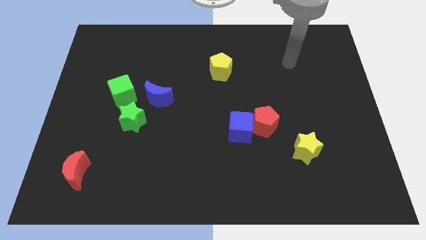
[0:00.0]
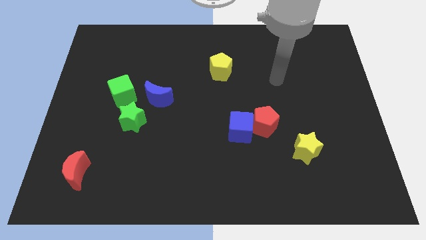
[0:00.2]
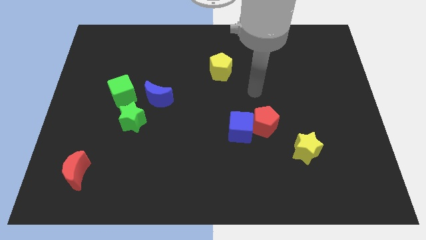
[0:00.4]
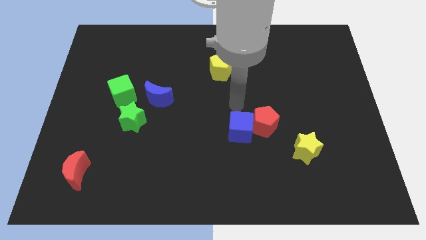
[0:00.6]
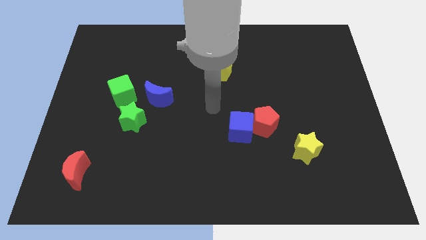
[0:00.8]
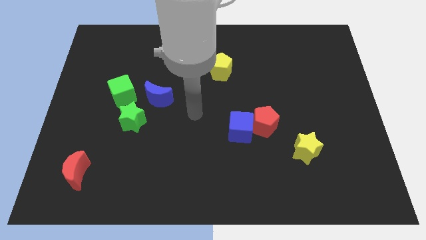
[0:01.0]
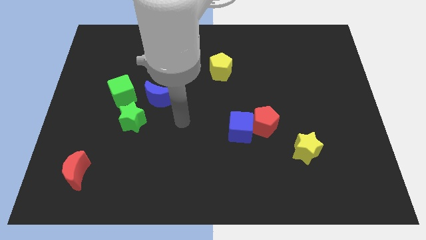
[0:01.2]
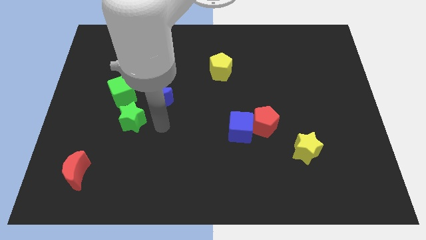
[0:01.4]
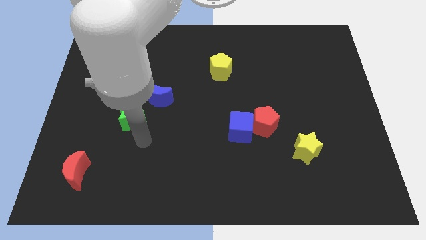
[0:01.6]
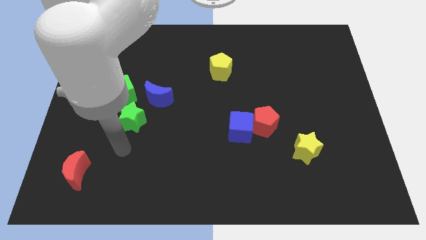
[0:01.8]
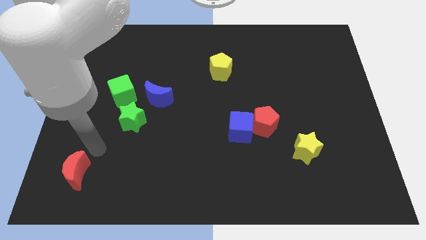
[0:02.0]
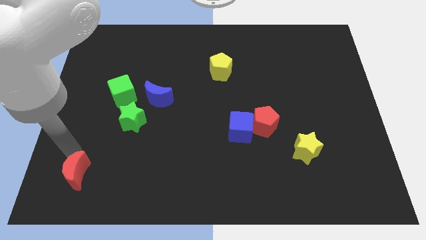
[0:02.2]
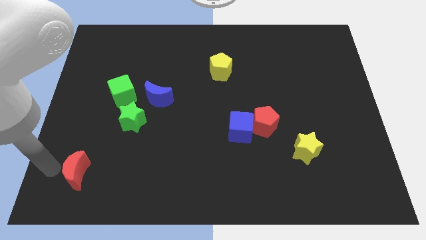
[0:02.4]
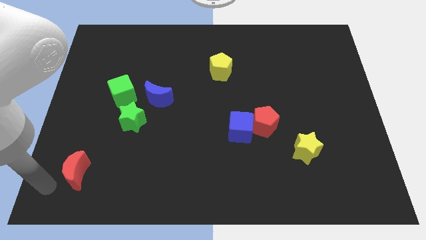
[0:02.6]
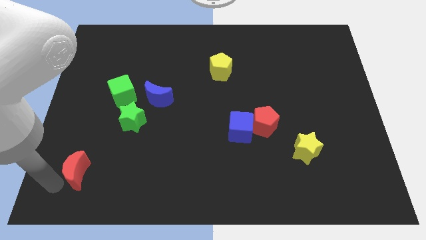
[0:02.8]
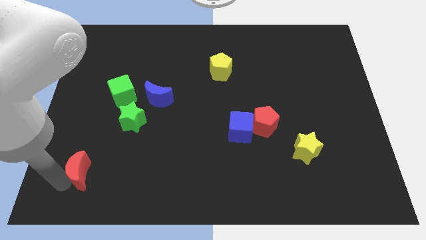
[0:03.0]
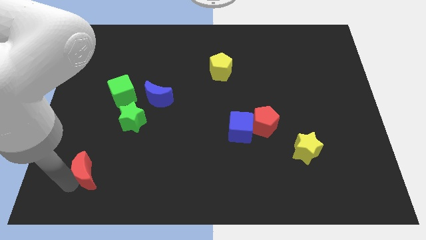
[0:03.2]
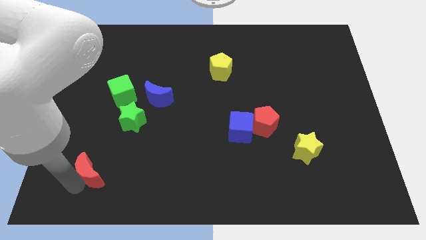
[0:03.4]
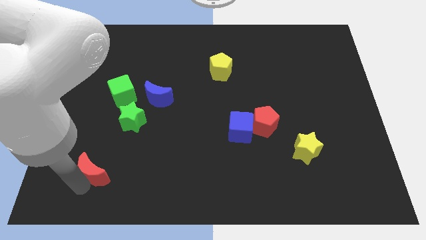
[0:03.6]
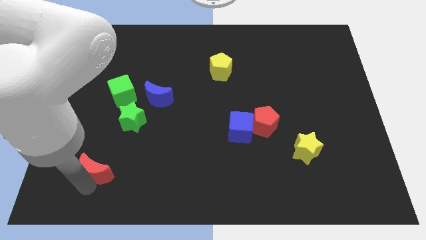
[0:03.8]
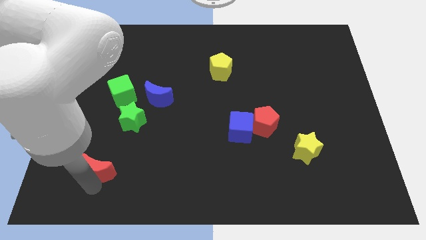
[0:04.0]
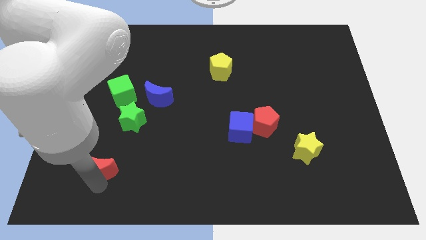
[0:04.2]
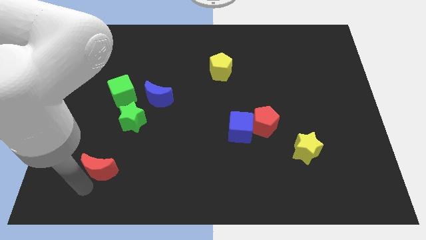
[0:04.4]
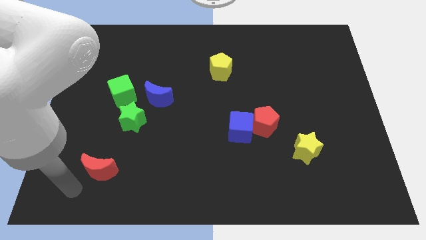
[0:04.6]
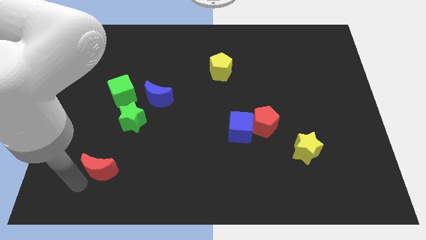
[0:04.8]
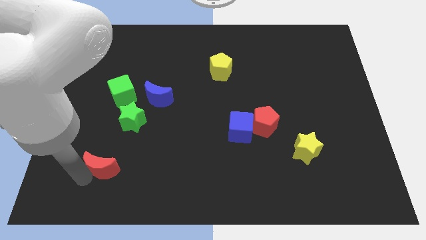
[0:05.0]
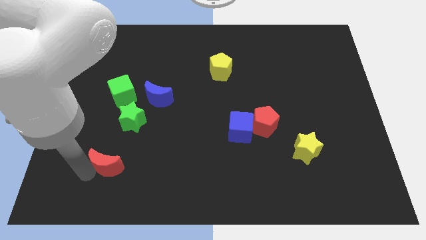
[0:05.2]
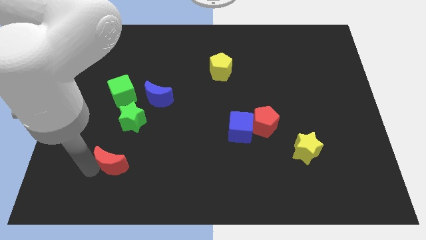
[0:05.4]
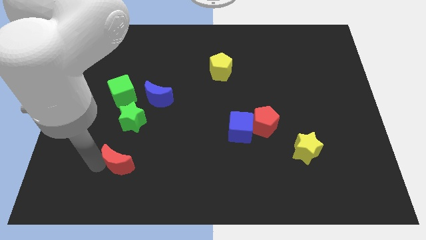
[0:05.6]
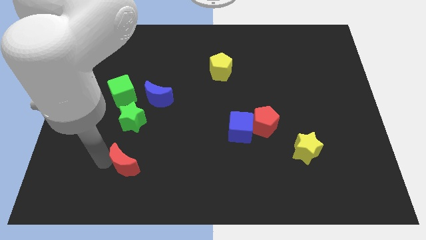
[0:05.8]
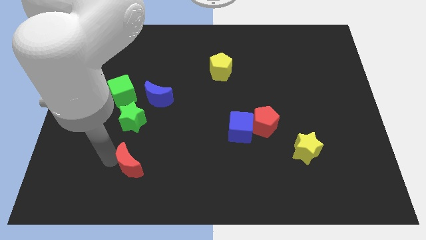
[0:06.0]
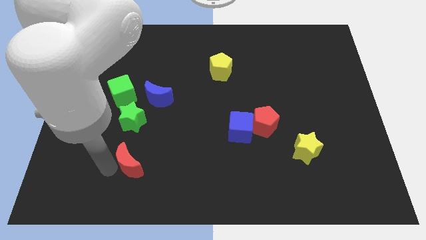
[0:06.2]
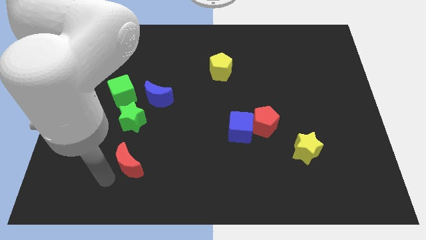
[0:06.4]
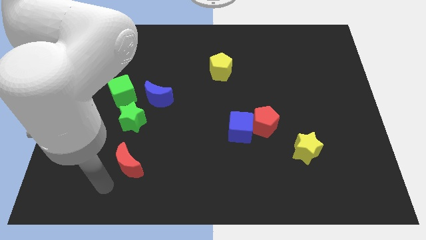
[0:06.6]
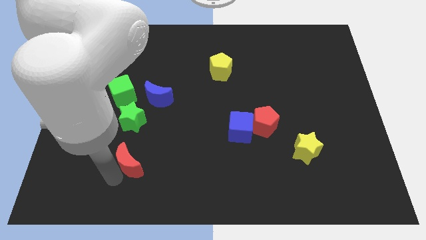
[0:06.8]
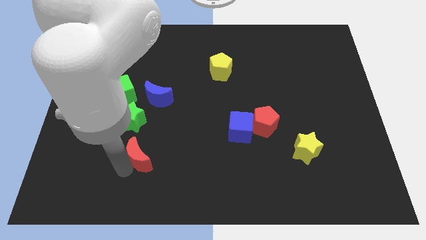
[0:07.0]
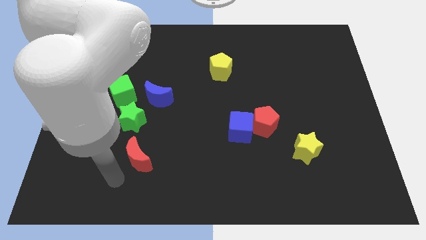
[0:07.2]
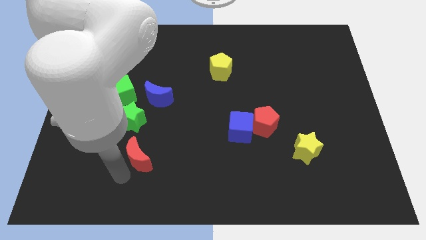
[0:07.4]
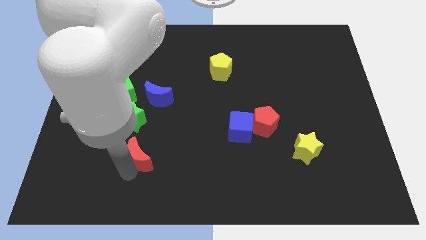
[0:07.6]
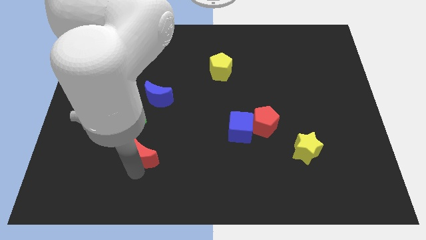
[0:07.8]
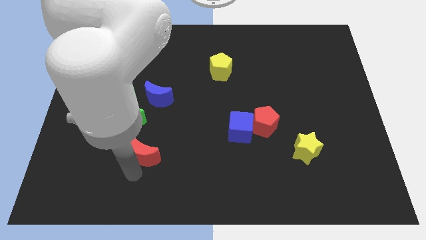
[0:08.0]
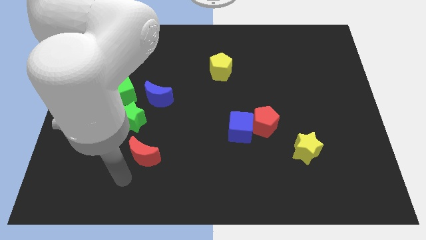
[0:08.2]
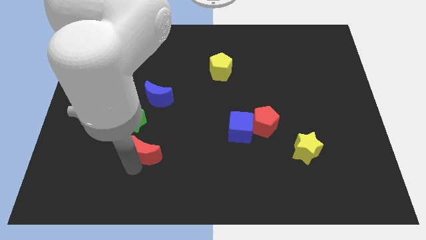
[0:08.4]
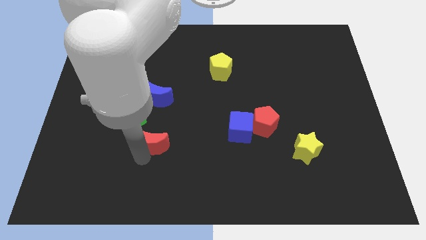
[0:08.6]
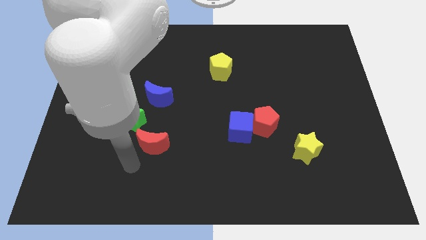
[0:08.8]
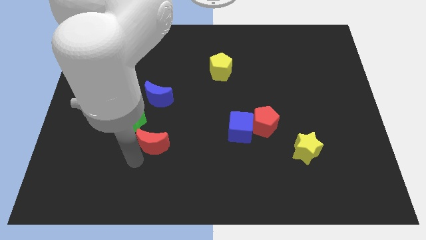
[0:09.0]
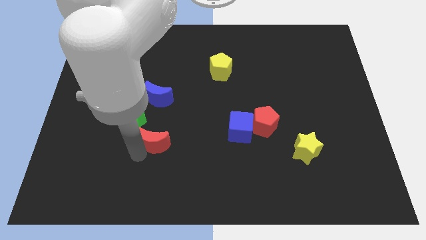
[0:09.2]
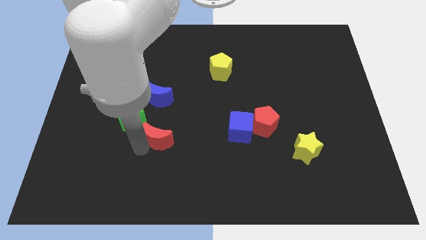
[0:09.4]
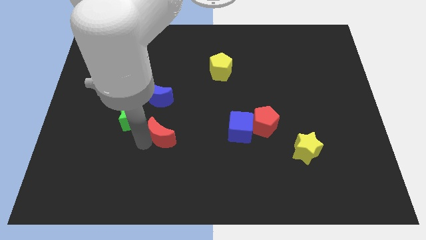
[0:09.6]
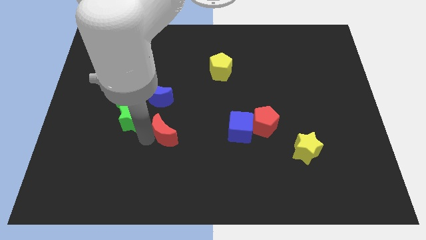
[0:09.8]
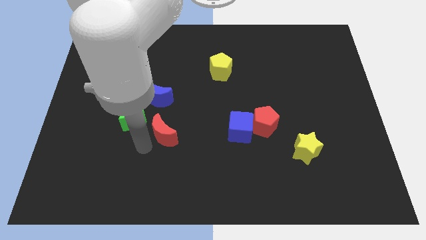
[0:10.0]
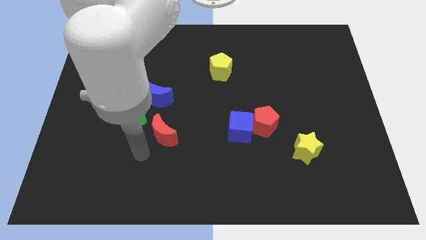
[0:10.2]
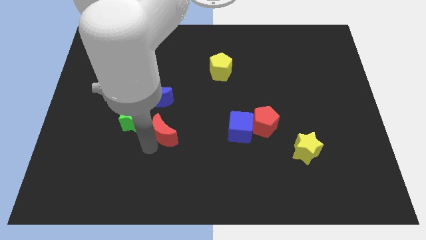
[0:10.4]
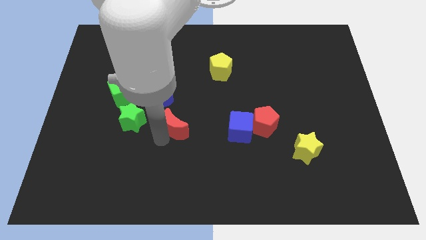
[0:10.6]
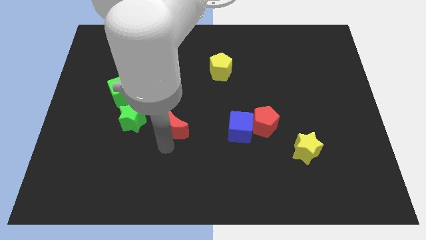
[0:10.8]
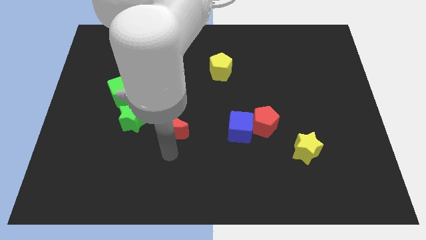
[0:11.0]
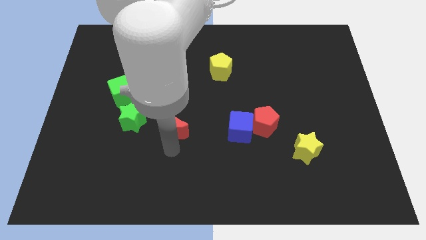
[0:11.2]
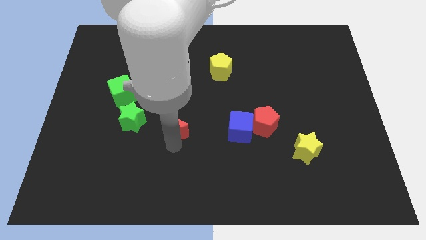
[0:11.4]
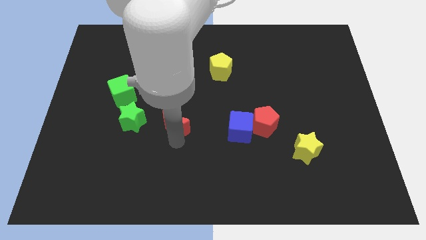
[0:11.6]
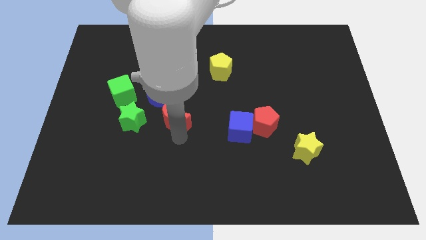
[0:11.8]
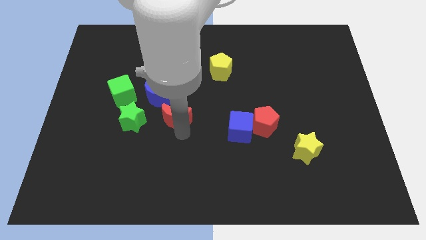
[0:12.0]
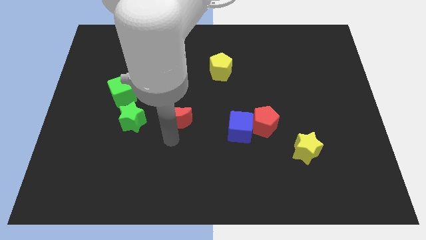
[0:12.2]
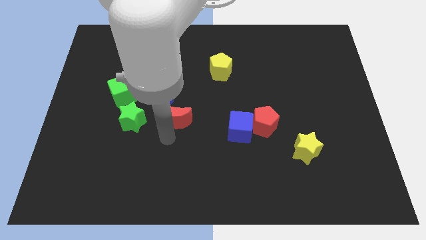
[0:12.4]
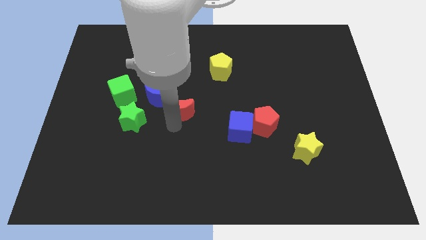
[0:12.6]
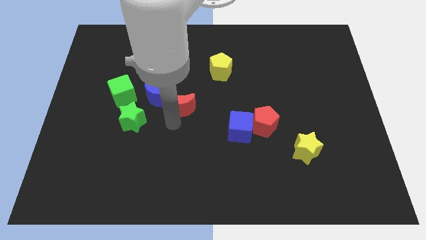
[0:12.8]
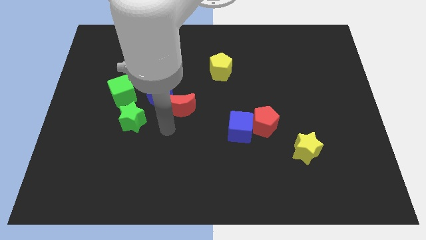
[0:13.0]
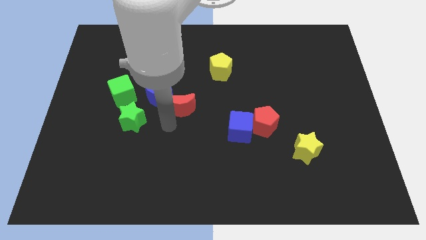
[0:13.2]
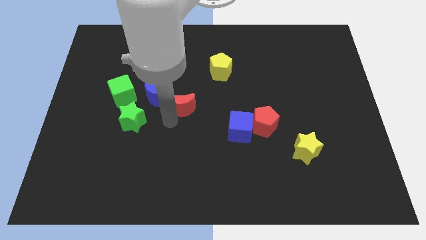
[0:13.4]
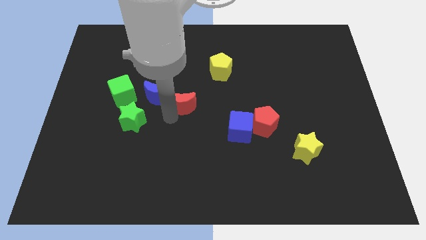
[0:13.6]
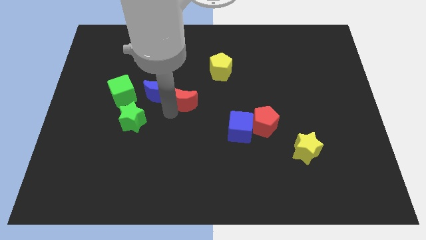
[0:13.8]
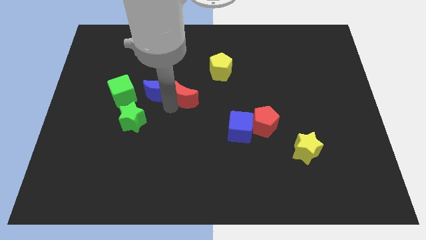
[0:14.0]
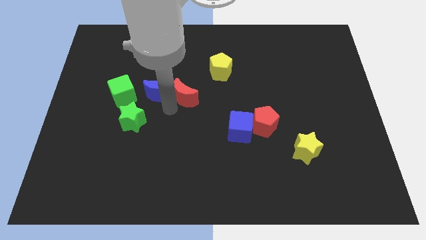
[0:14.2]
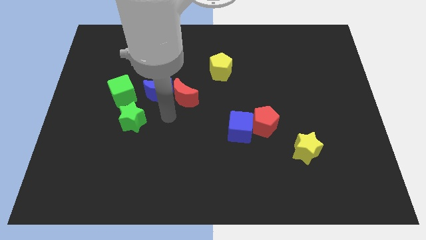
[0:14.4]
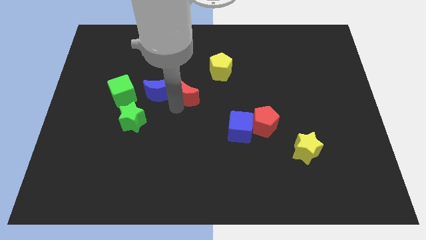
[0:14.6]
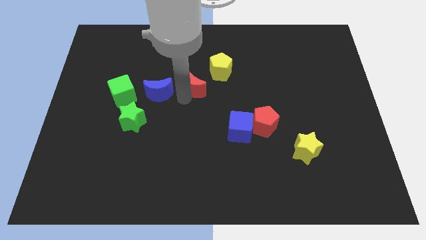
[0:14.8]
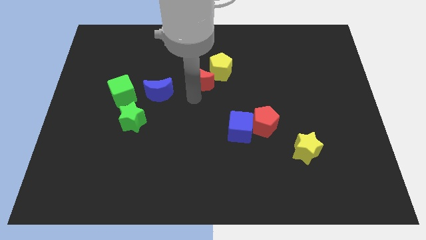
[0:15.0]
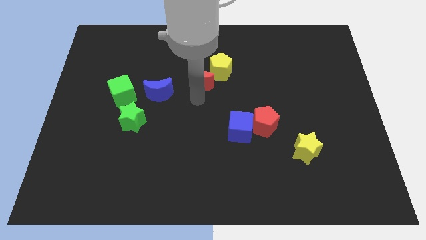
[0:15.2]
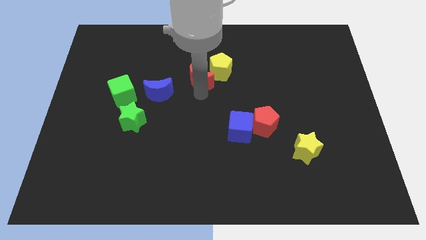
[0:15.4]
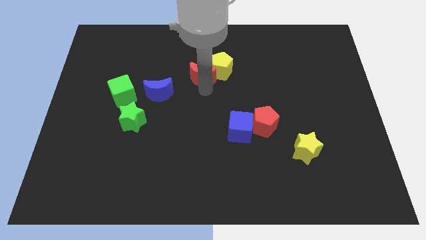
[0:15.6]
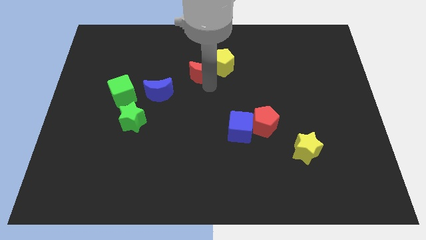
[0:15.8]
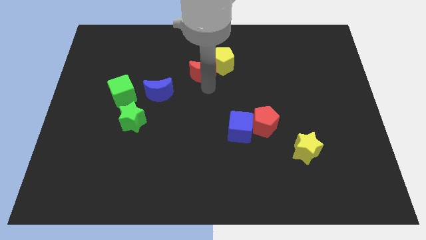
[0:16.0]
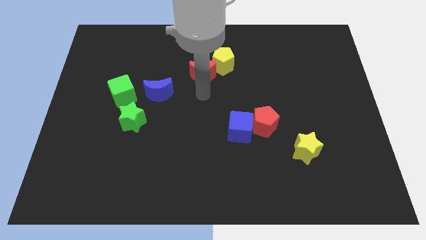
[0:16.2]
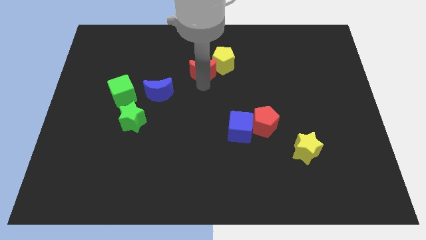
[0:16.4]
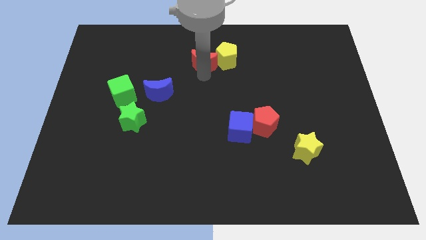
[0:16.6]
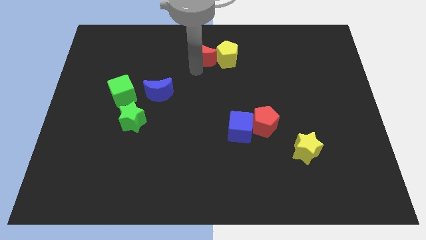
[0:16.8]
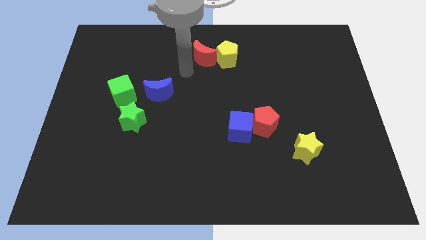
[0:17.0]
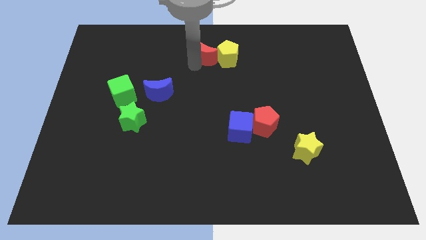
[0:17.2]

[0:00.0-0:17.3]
put the red moon to the top side
